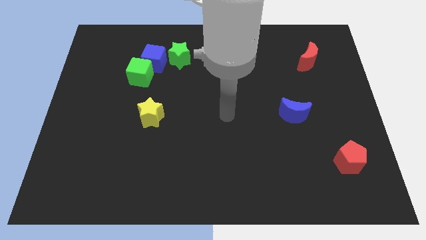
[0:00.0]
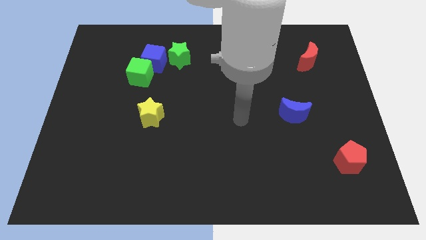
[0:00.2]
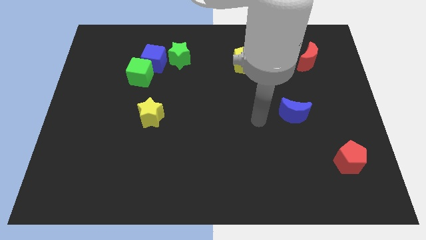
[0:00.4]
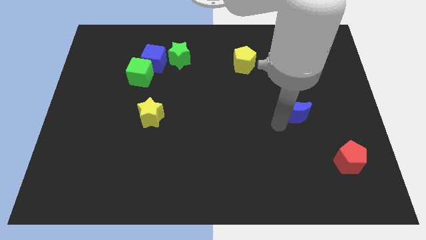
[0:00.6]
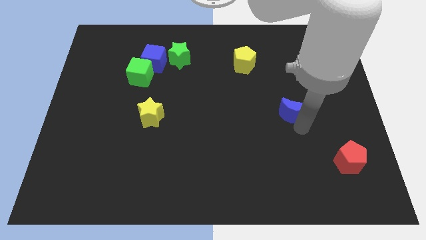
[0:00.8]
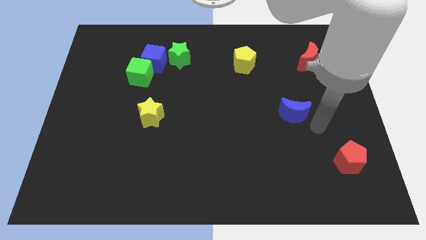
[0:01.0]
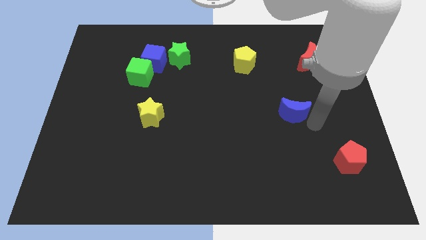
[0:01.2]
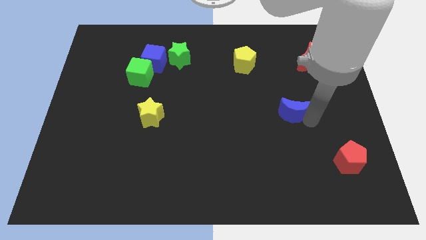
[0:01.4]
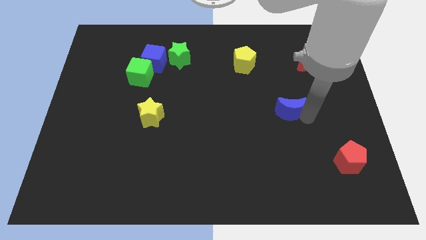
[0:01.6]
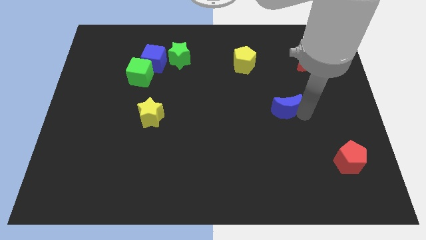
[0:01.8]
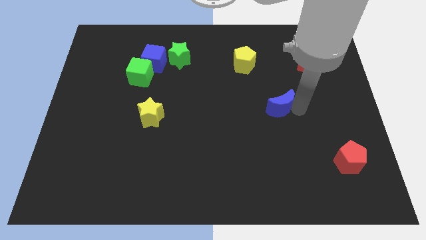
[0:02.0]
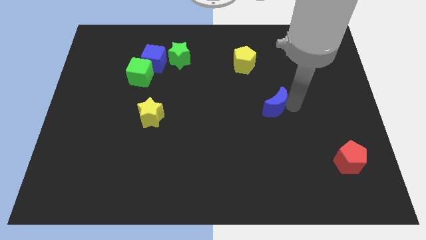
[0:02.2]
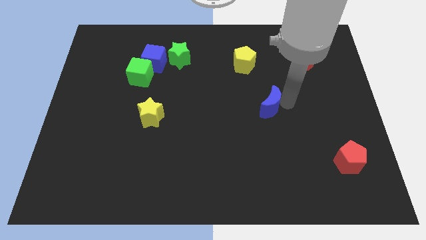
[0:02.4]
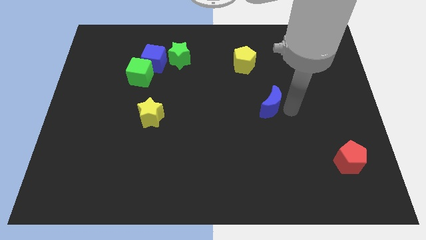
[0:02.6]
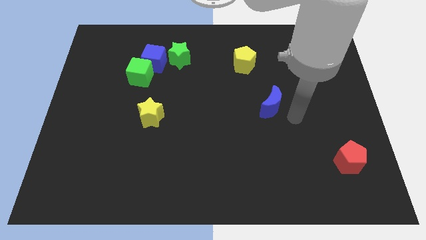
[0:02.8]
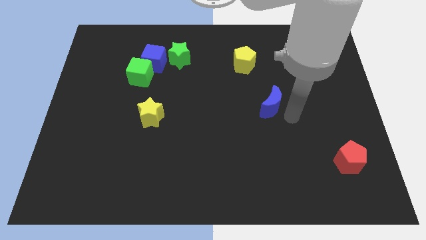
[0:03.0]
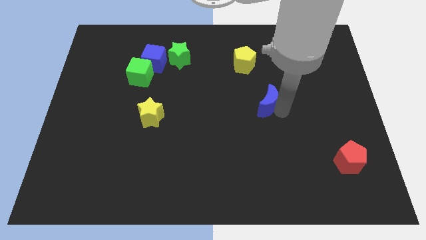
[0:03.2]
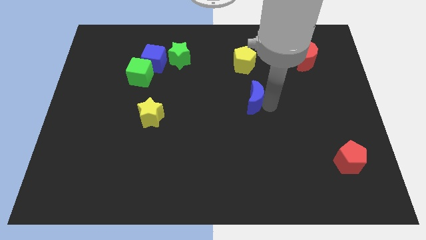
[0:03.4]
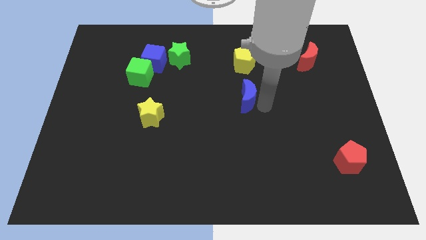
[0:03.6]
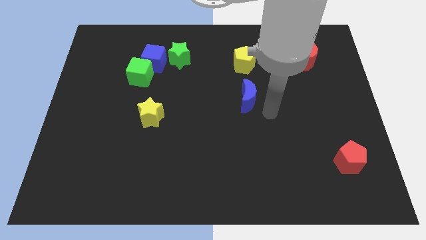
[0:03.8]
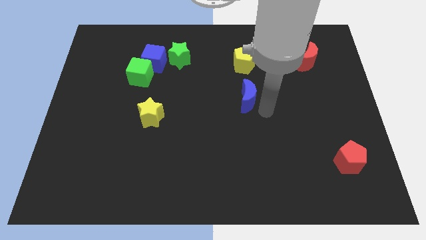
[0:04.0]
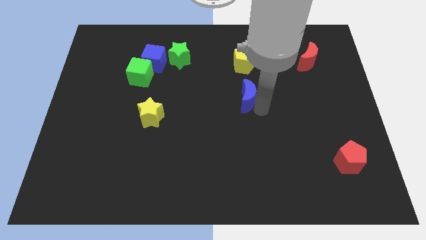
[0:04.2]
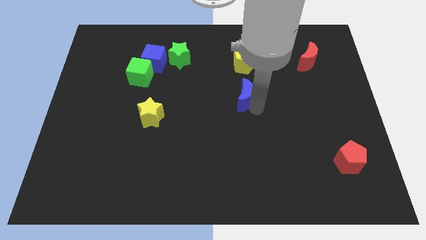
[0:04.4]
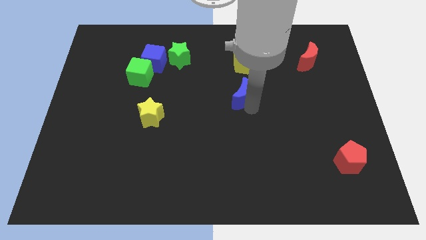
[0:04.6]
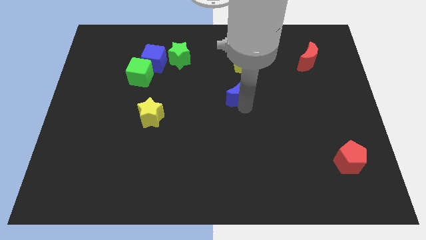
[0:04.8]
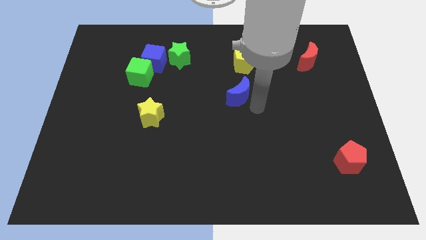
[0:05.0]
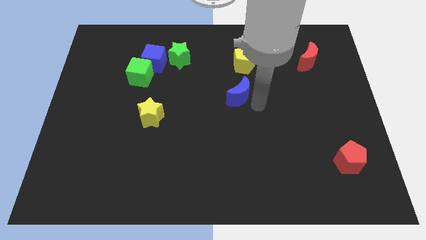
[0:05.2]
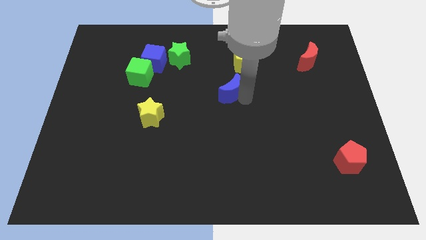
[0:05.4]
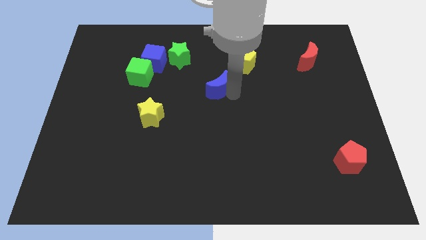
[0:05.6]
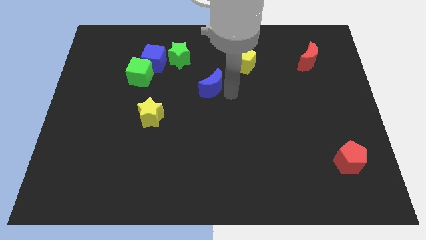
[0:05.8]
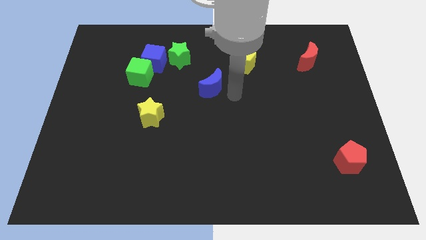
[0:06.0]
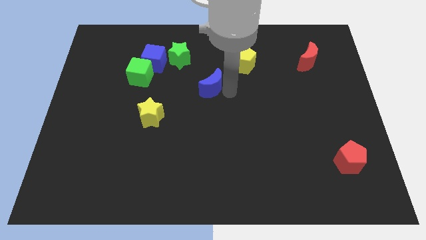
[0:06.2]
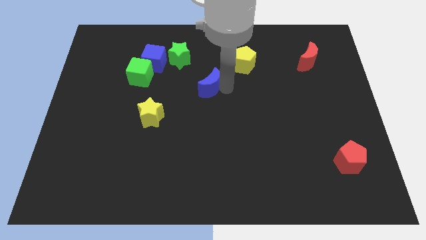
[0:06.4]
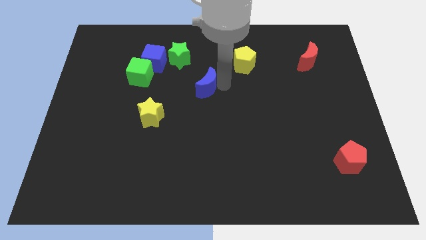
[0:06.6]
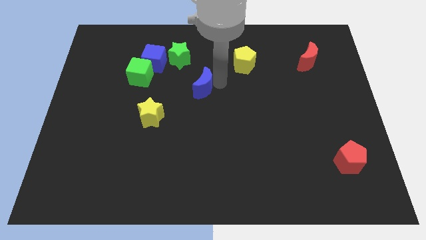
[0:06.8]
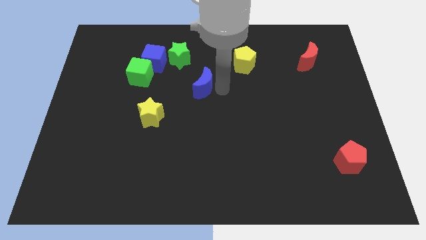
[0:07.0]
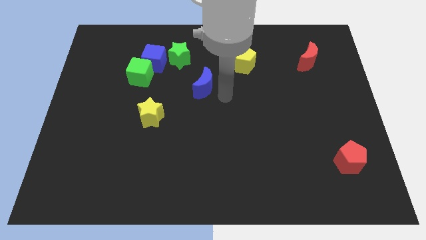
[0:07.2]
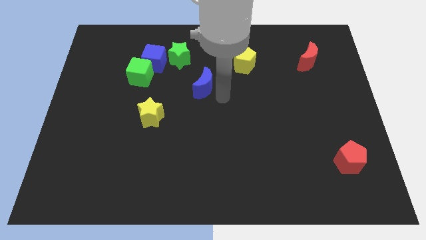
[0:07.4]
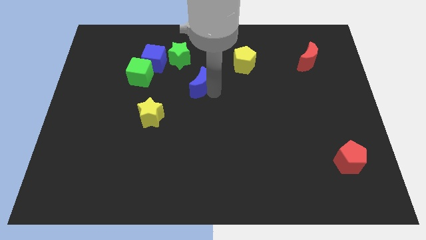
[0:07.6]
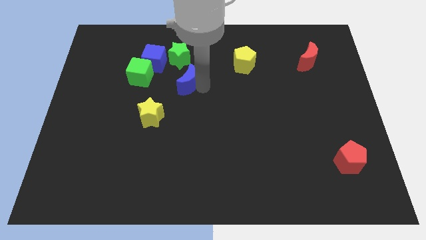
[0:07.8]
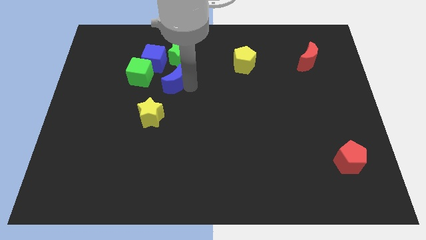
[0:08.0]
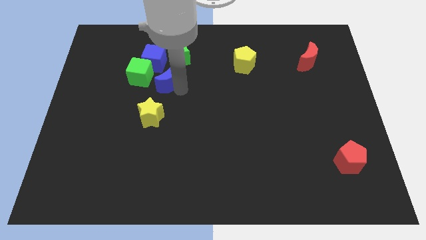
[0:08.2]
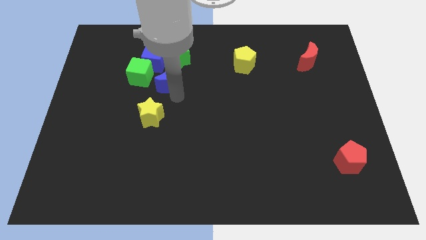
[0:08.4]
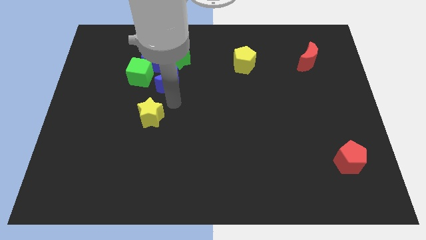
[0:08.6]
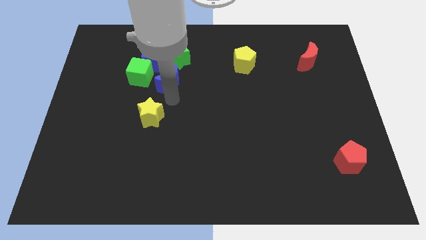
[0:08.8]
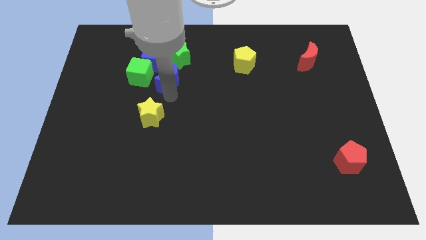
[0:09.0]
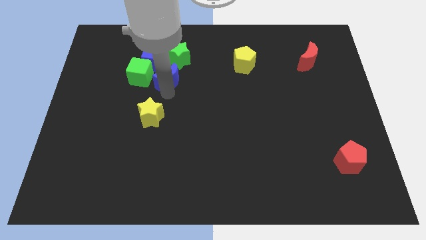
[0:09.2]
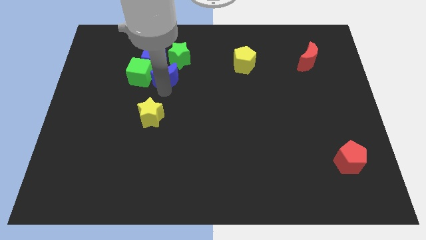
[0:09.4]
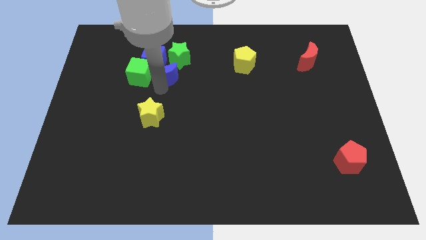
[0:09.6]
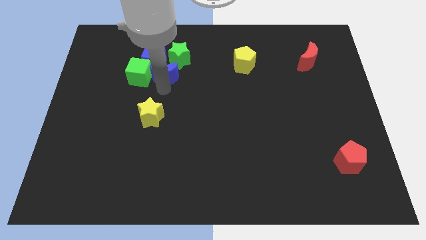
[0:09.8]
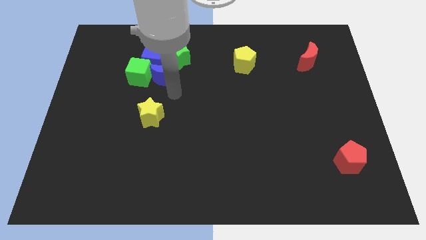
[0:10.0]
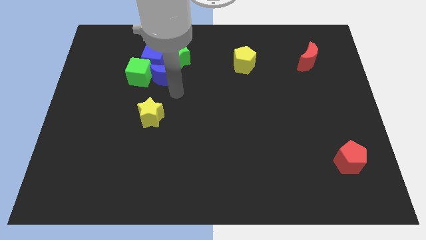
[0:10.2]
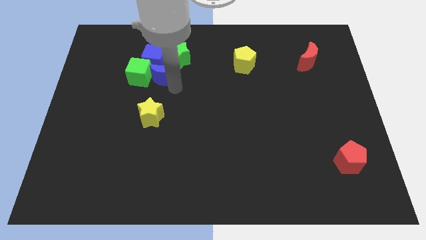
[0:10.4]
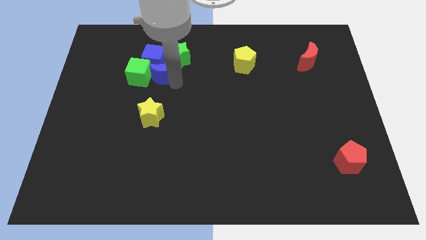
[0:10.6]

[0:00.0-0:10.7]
slide the blue moon next to the blue cube

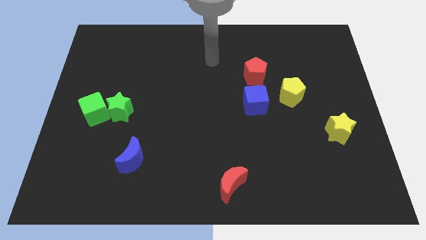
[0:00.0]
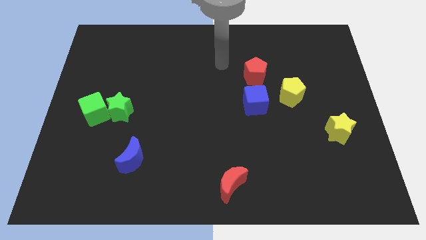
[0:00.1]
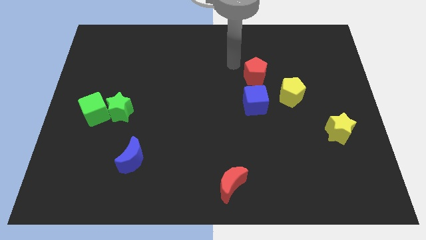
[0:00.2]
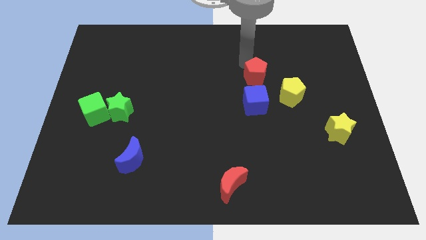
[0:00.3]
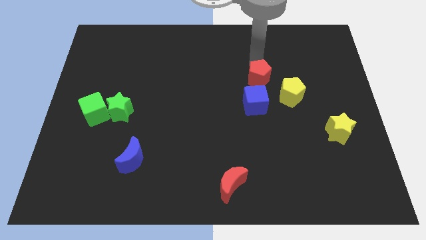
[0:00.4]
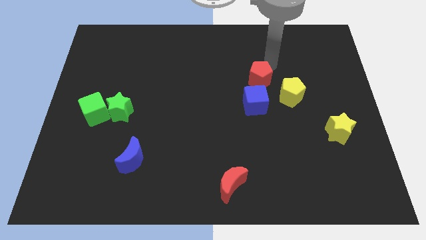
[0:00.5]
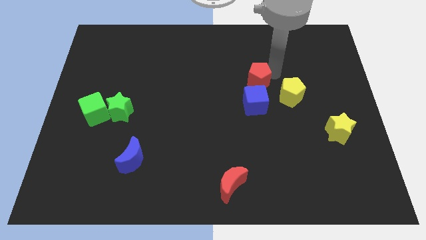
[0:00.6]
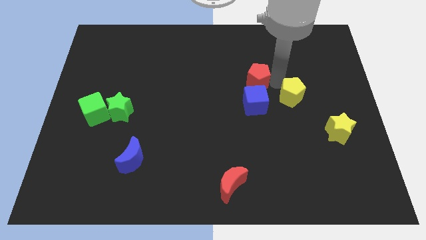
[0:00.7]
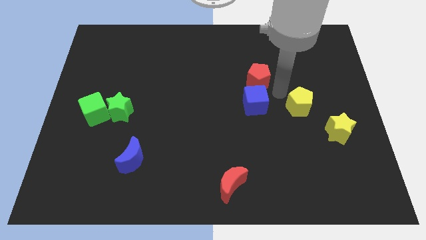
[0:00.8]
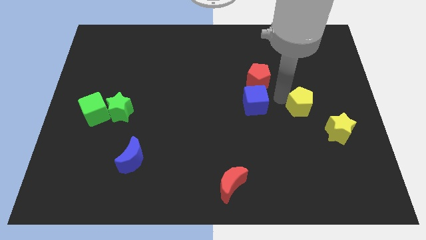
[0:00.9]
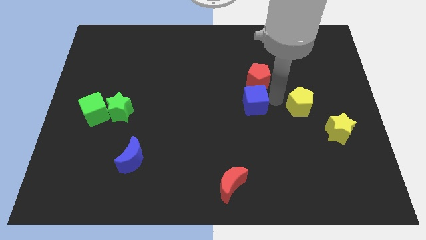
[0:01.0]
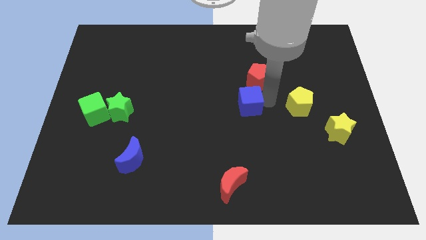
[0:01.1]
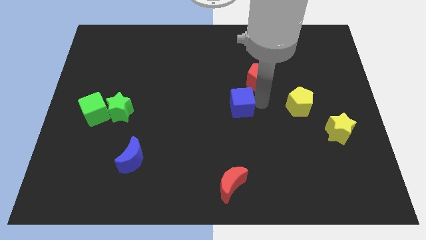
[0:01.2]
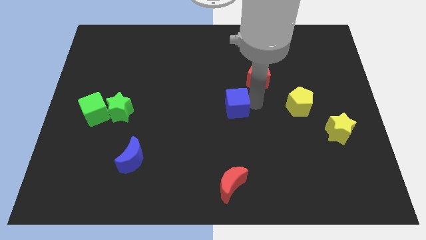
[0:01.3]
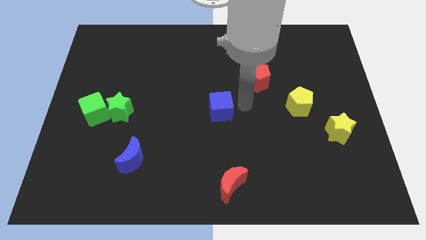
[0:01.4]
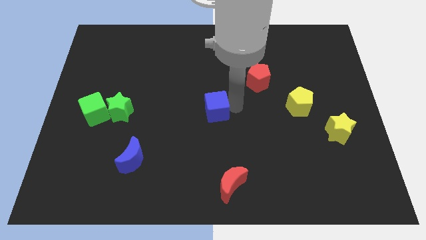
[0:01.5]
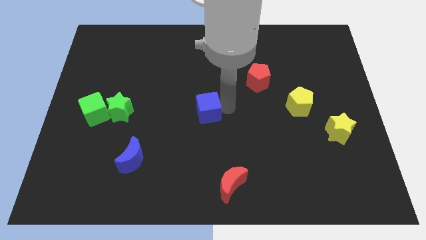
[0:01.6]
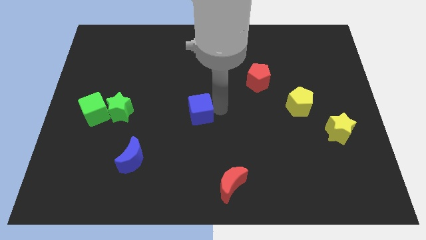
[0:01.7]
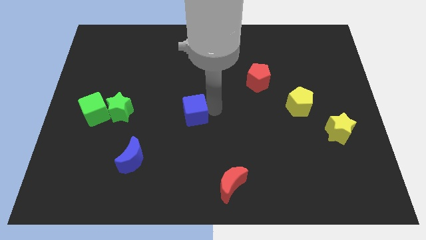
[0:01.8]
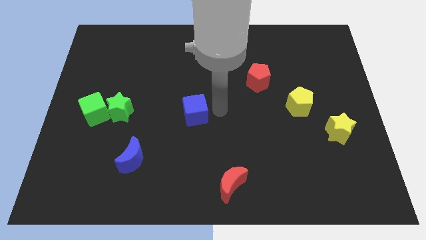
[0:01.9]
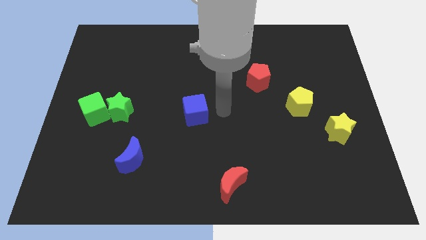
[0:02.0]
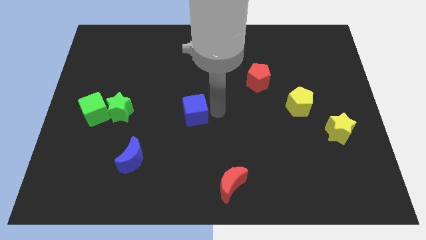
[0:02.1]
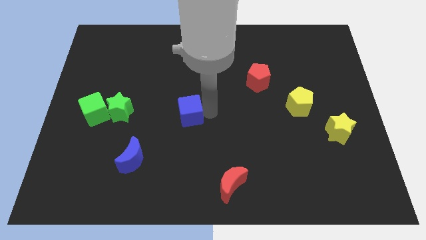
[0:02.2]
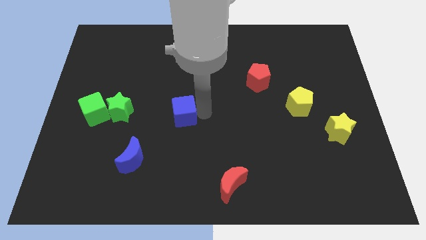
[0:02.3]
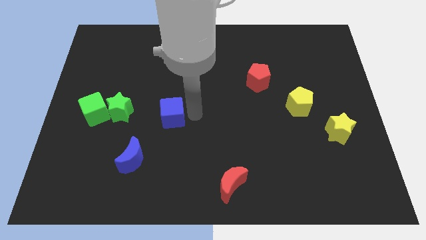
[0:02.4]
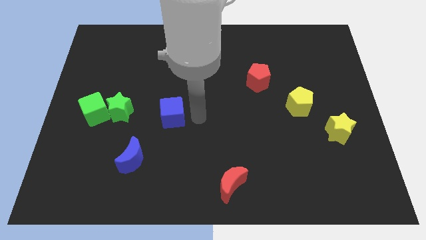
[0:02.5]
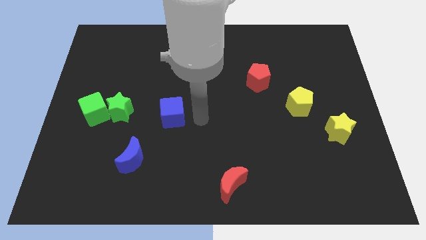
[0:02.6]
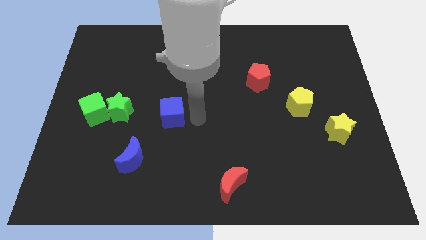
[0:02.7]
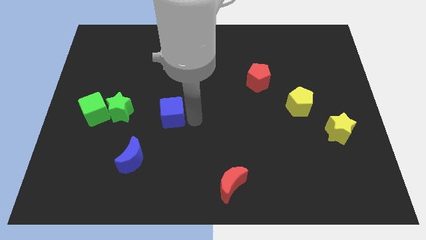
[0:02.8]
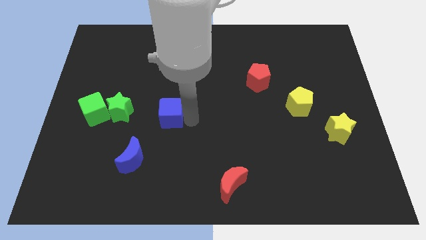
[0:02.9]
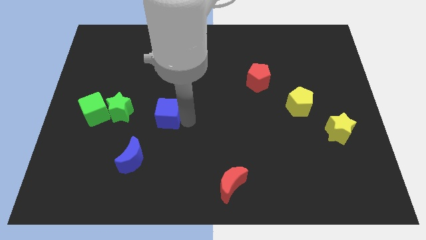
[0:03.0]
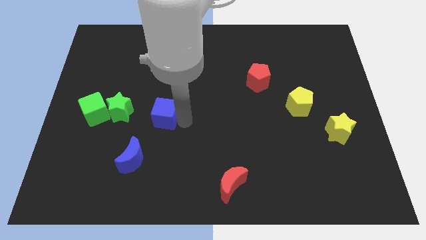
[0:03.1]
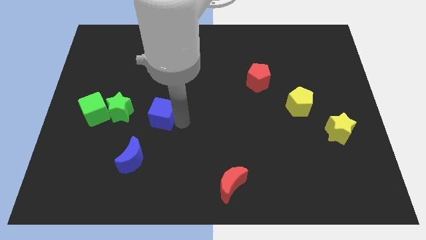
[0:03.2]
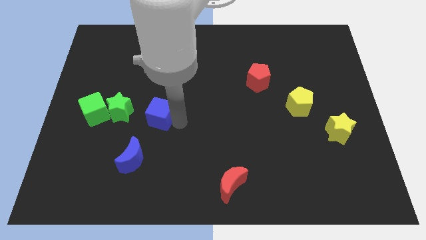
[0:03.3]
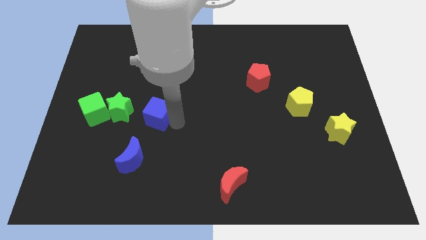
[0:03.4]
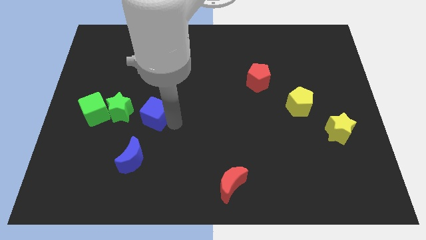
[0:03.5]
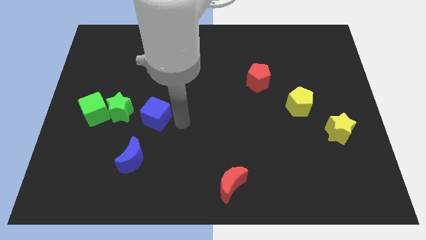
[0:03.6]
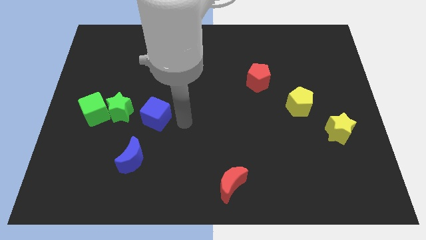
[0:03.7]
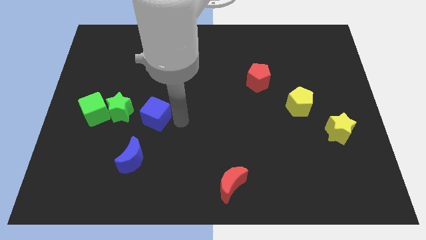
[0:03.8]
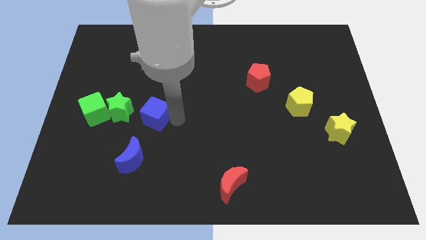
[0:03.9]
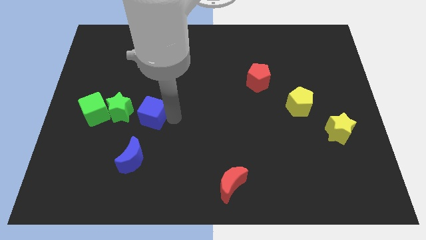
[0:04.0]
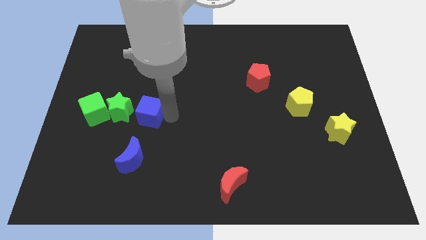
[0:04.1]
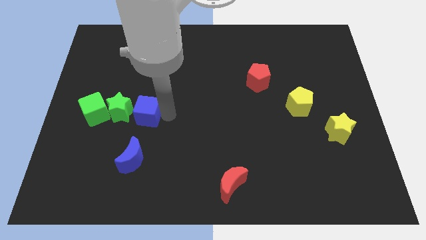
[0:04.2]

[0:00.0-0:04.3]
put the blue cube to the green star
